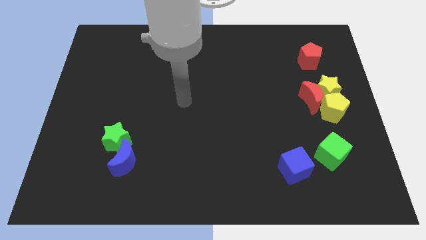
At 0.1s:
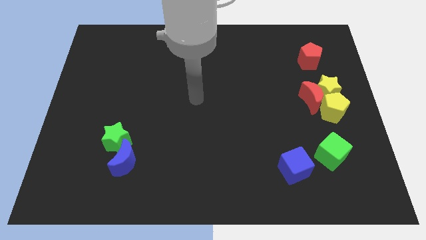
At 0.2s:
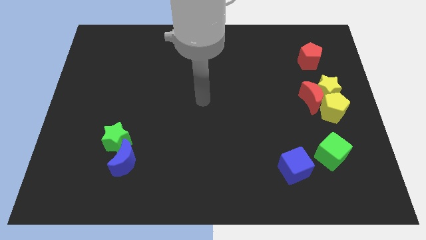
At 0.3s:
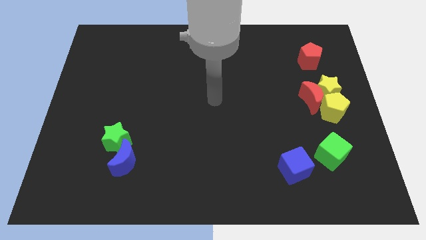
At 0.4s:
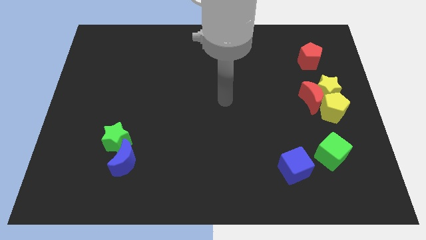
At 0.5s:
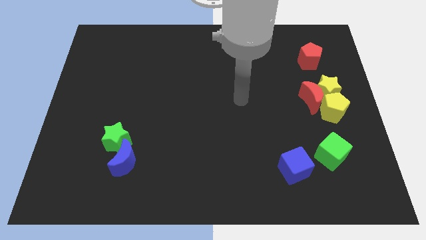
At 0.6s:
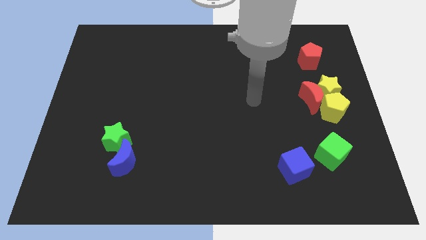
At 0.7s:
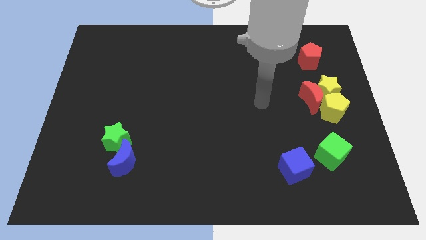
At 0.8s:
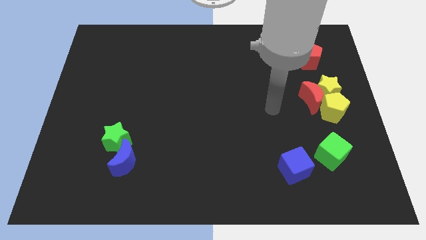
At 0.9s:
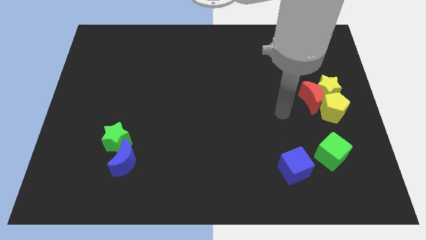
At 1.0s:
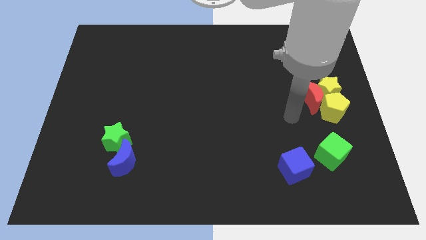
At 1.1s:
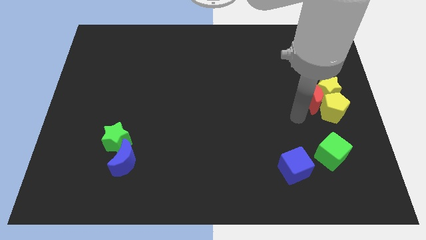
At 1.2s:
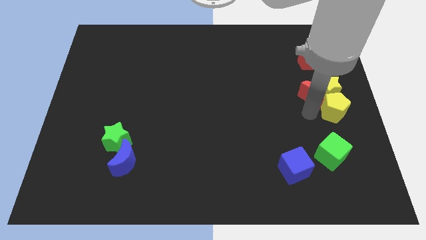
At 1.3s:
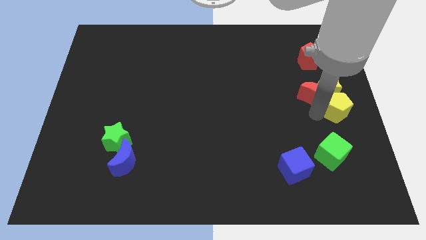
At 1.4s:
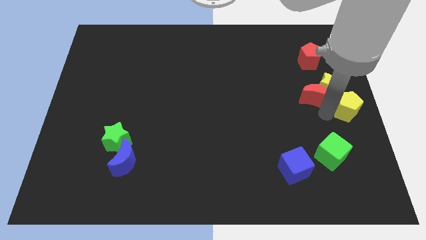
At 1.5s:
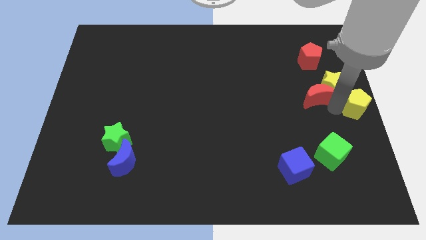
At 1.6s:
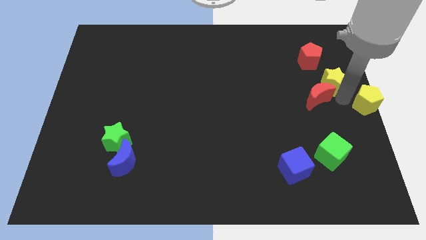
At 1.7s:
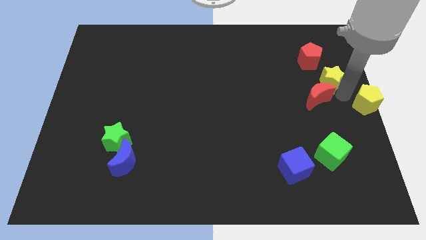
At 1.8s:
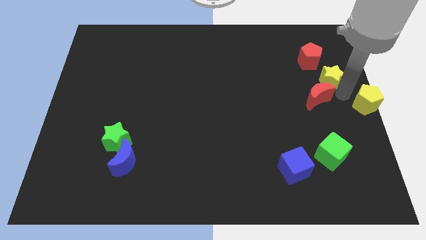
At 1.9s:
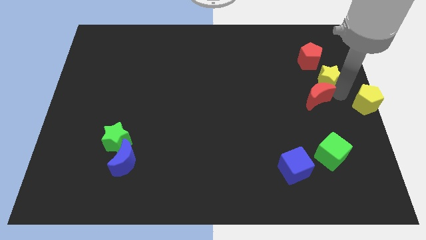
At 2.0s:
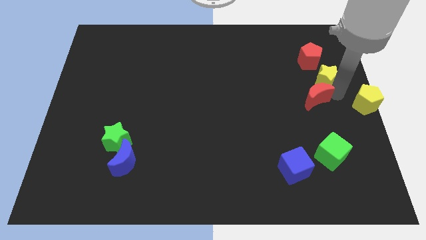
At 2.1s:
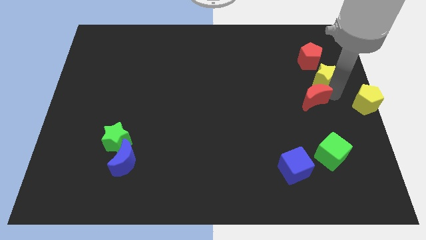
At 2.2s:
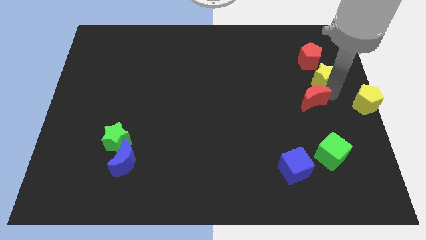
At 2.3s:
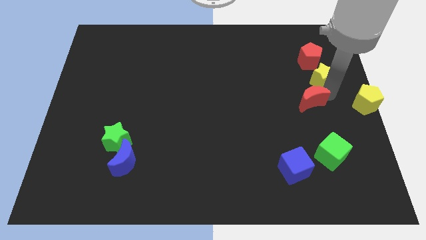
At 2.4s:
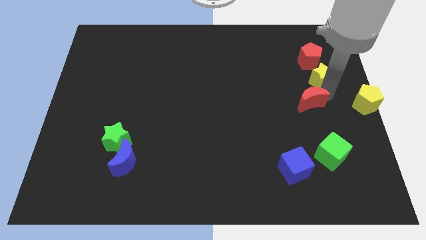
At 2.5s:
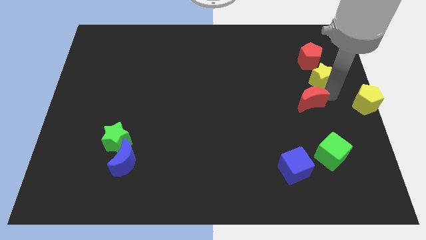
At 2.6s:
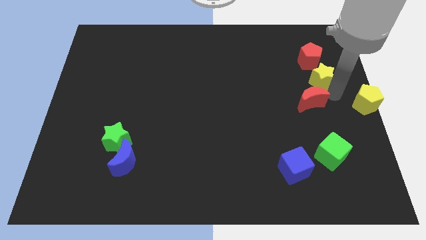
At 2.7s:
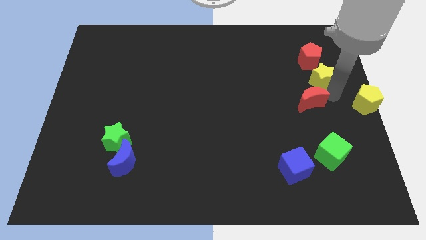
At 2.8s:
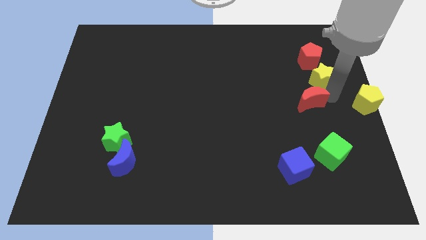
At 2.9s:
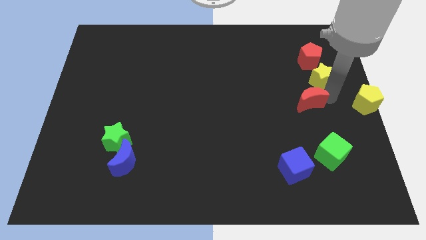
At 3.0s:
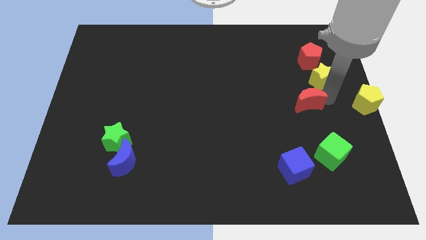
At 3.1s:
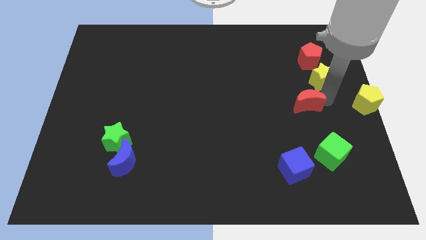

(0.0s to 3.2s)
move the red moon away from the yellow star and yellow pentagon

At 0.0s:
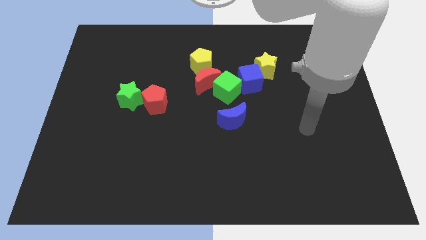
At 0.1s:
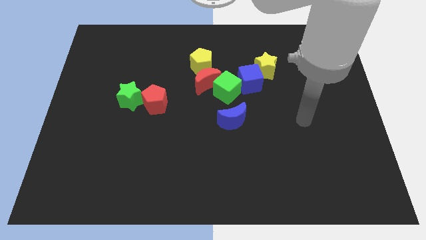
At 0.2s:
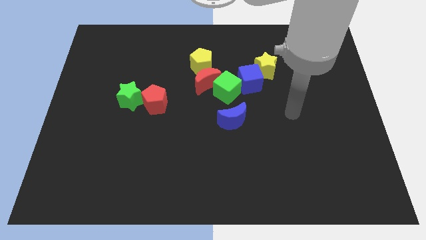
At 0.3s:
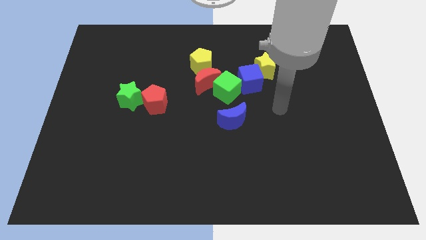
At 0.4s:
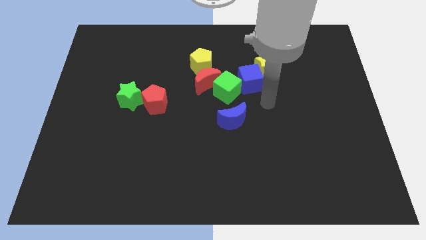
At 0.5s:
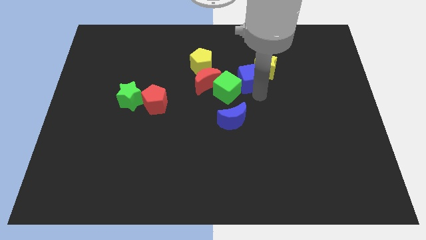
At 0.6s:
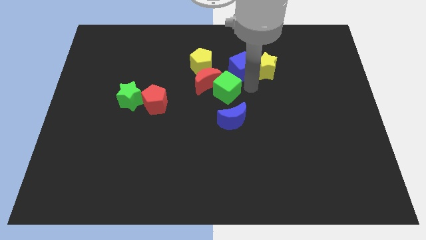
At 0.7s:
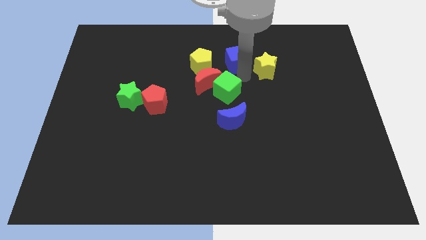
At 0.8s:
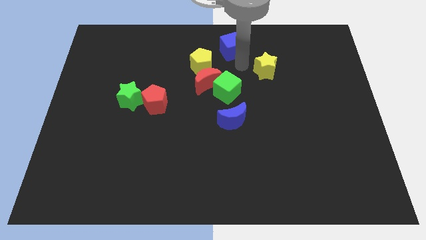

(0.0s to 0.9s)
separate the yellow star from the blue cube

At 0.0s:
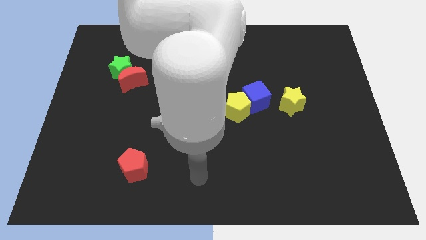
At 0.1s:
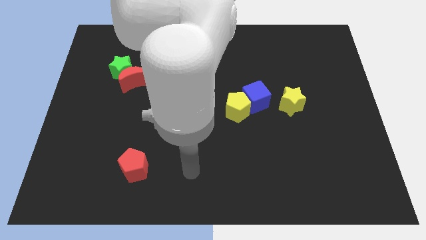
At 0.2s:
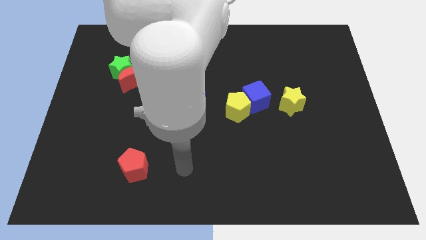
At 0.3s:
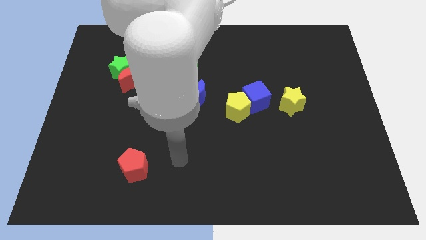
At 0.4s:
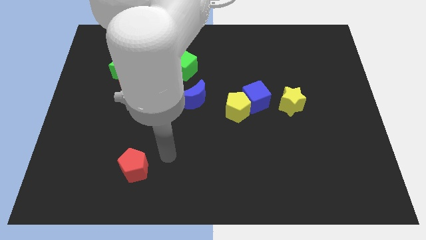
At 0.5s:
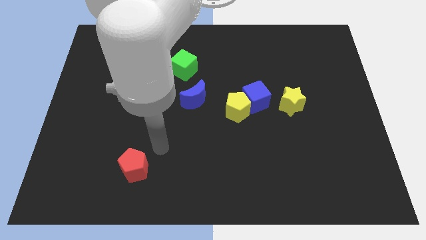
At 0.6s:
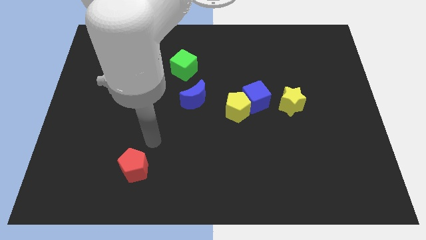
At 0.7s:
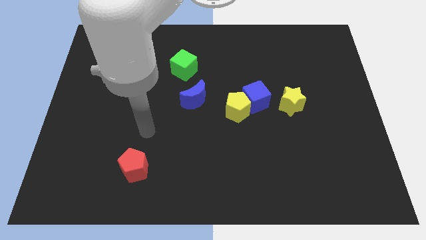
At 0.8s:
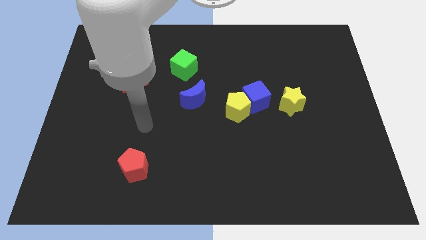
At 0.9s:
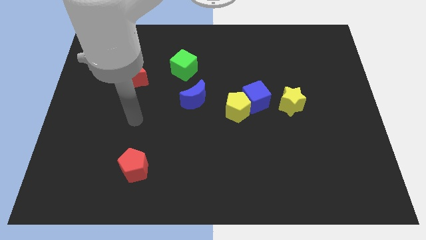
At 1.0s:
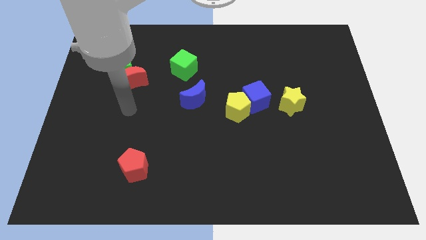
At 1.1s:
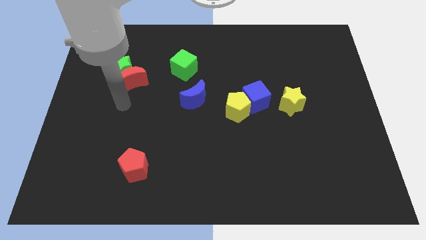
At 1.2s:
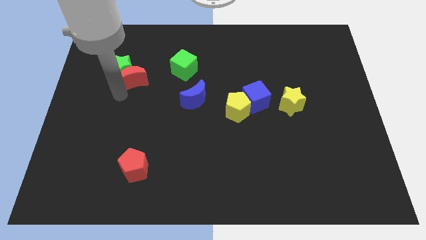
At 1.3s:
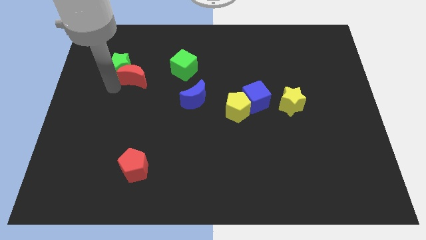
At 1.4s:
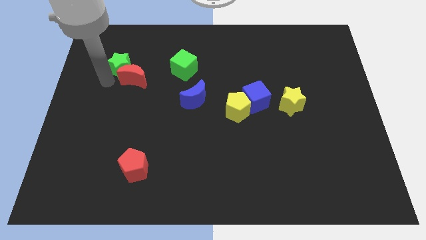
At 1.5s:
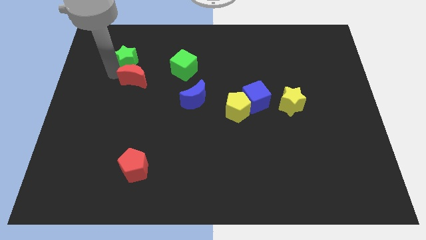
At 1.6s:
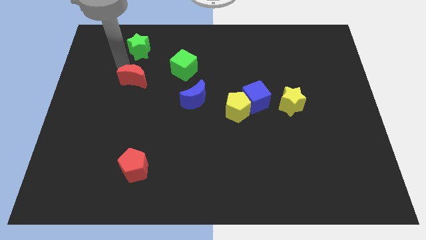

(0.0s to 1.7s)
move the red moon away from the green star

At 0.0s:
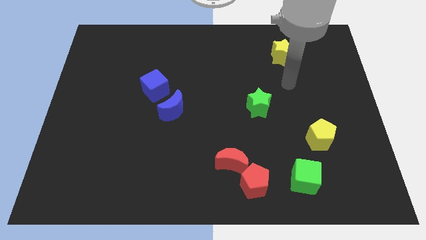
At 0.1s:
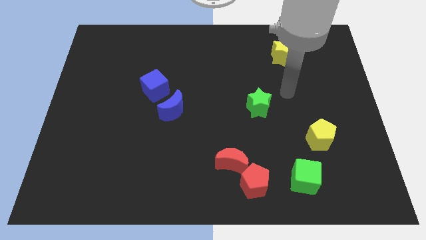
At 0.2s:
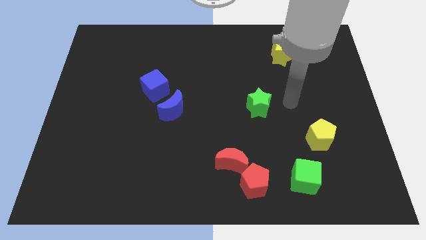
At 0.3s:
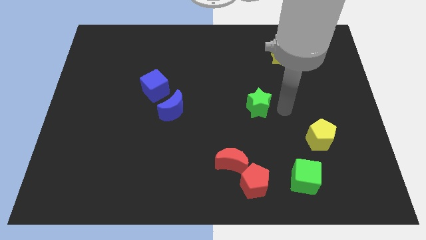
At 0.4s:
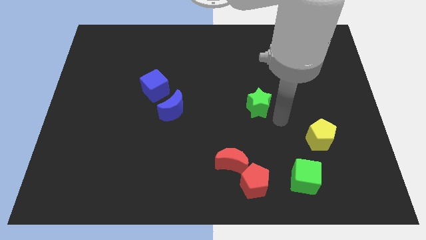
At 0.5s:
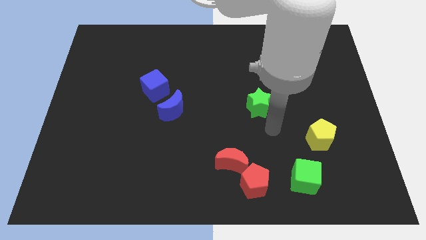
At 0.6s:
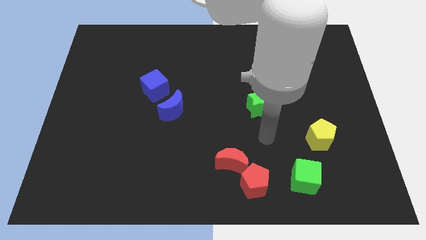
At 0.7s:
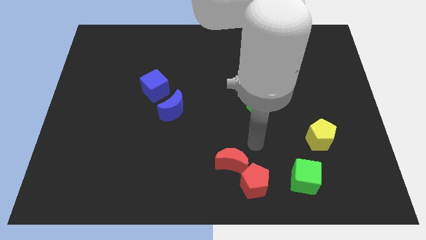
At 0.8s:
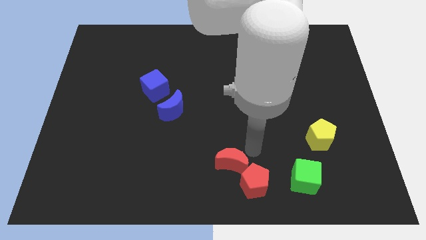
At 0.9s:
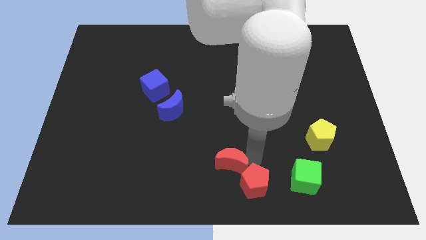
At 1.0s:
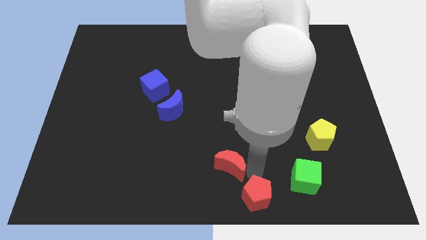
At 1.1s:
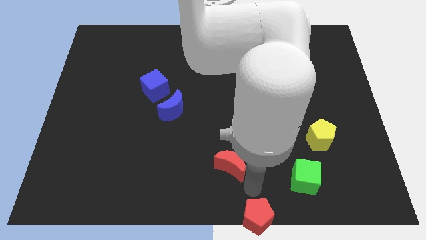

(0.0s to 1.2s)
pull the red moon apart from the red pentagon

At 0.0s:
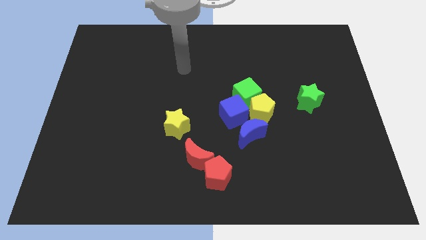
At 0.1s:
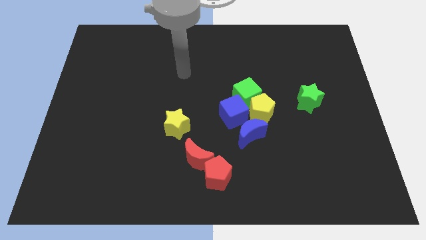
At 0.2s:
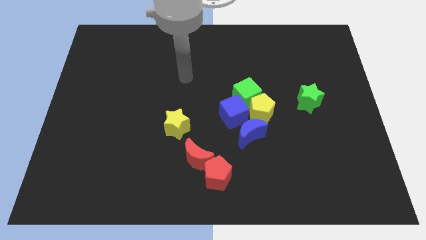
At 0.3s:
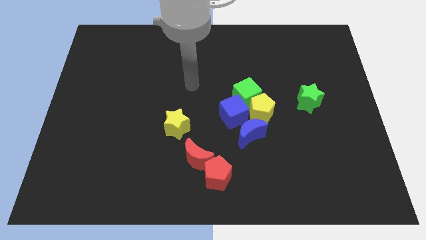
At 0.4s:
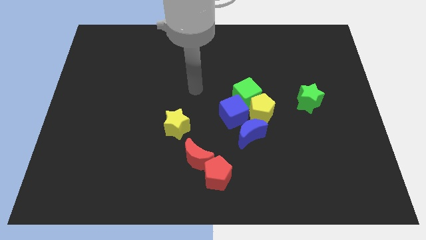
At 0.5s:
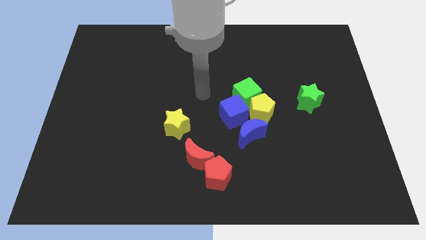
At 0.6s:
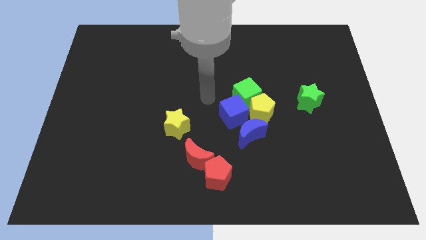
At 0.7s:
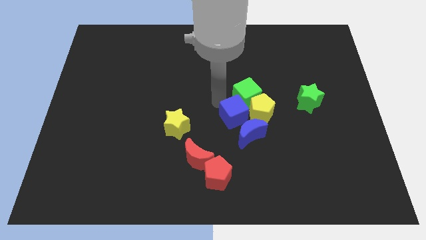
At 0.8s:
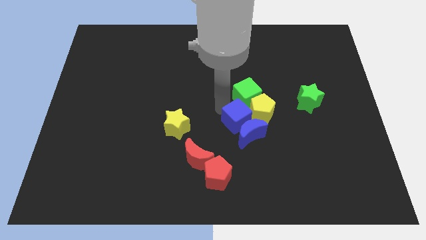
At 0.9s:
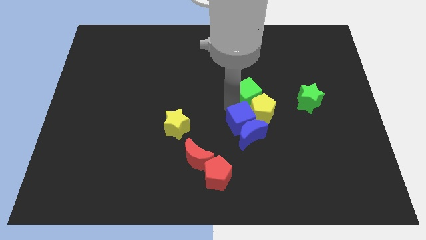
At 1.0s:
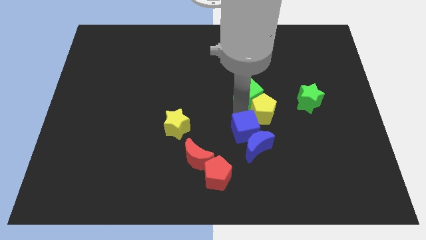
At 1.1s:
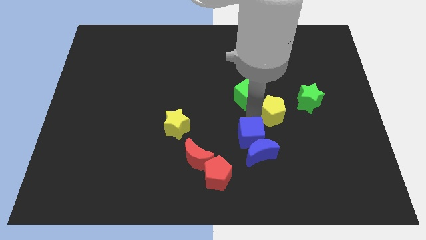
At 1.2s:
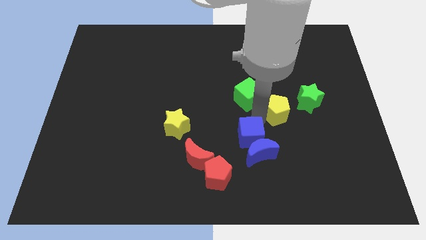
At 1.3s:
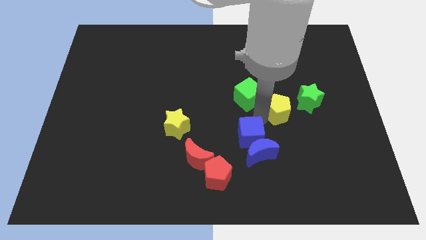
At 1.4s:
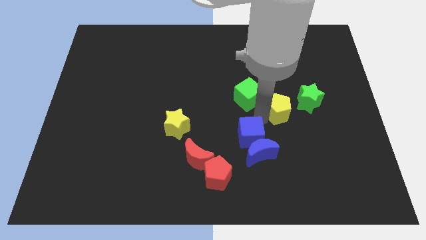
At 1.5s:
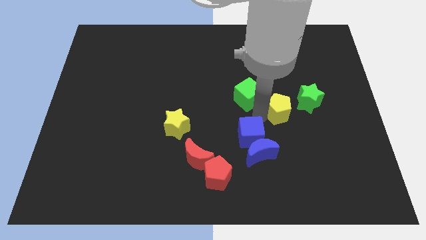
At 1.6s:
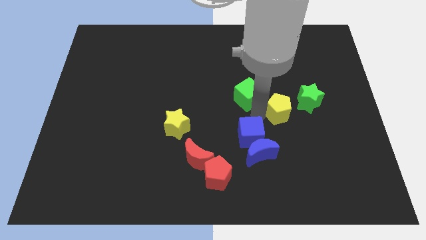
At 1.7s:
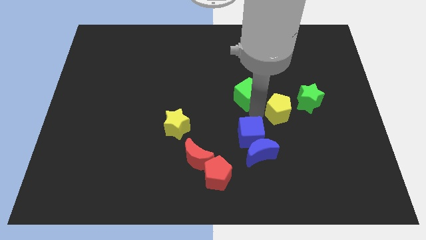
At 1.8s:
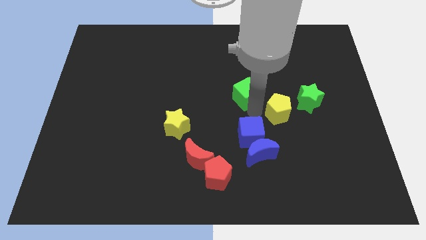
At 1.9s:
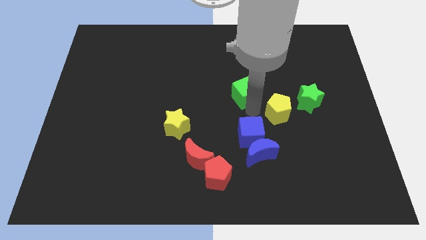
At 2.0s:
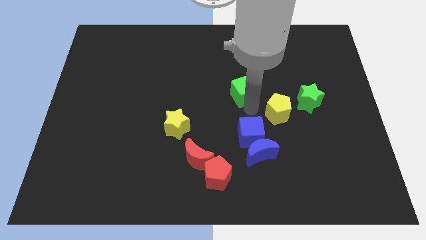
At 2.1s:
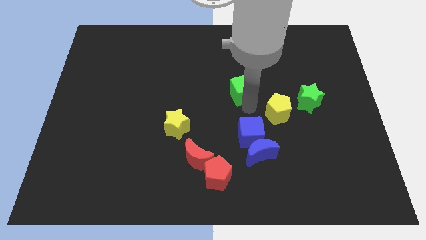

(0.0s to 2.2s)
pull the green cube apart from the yellow pentagon and blue cube
